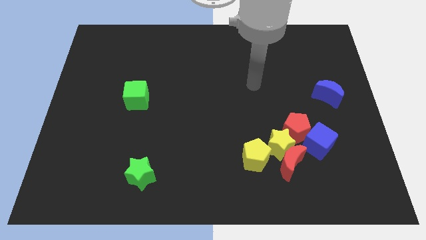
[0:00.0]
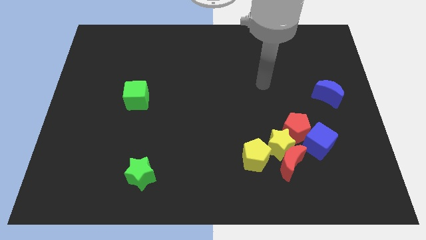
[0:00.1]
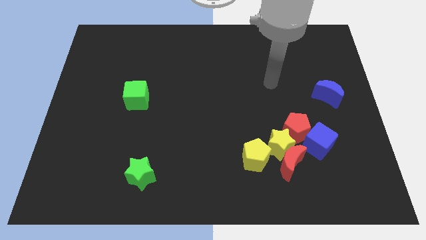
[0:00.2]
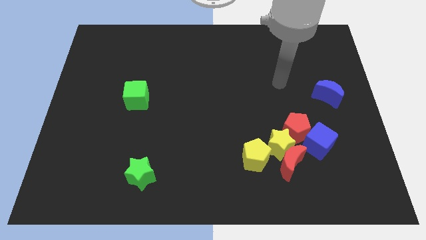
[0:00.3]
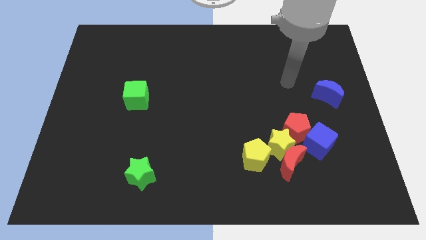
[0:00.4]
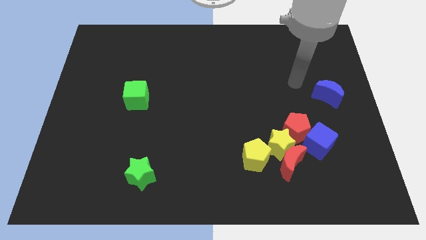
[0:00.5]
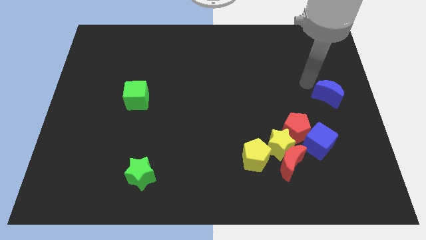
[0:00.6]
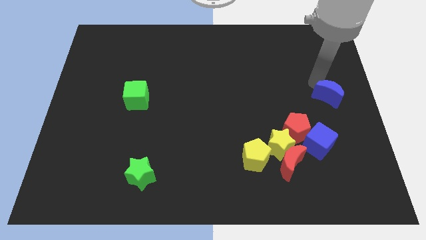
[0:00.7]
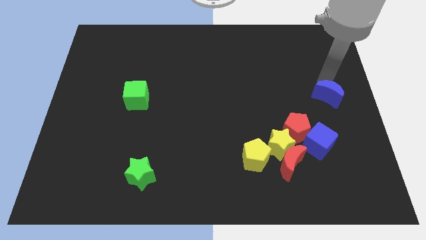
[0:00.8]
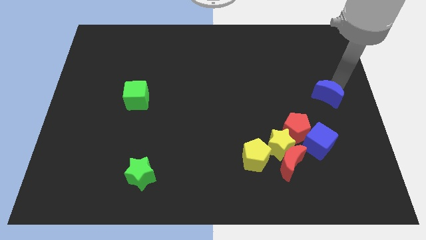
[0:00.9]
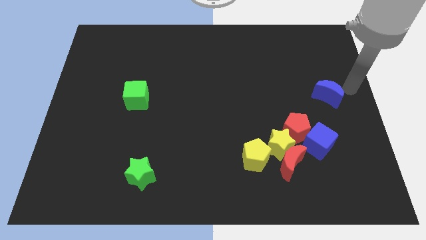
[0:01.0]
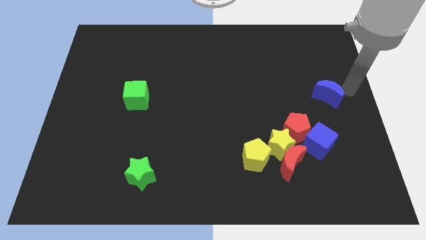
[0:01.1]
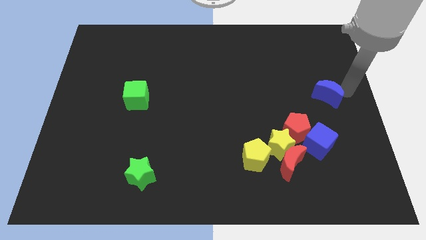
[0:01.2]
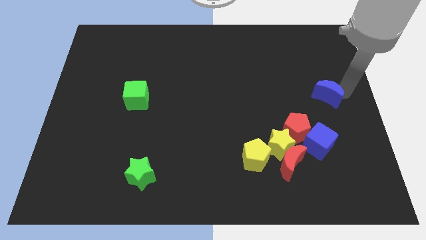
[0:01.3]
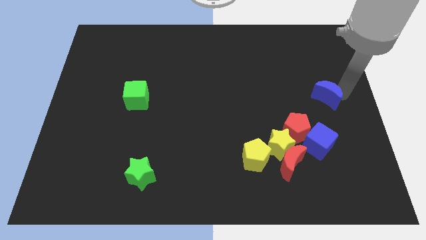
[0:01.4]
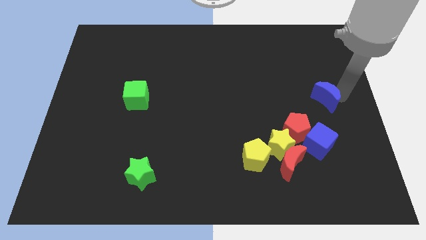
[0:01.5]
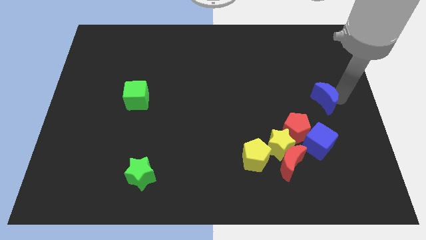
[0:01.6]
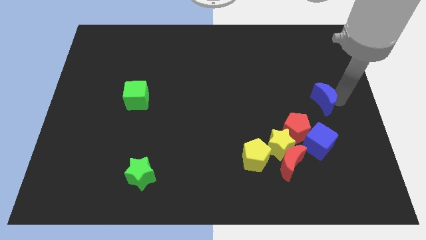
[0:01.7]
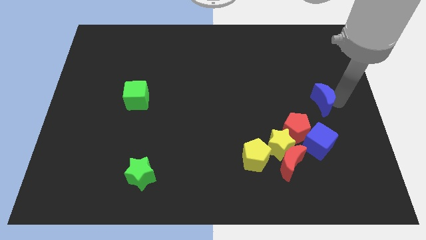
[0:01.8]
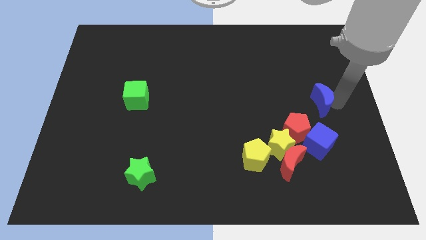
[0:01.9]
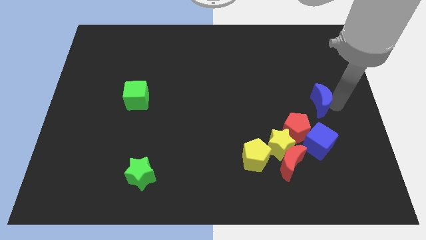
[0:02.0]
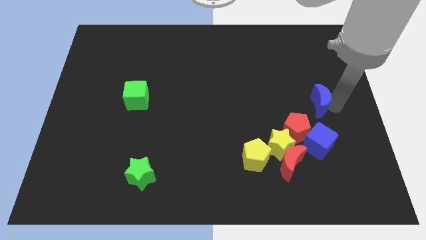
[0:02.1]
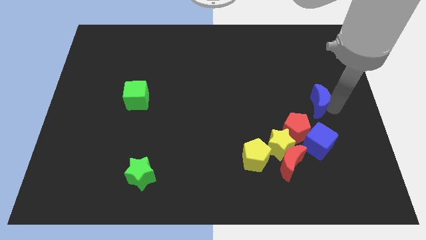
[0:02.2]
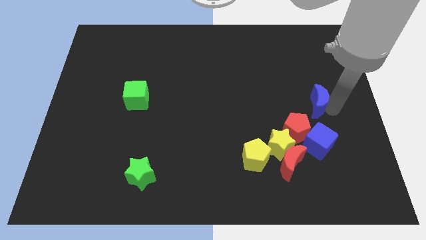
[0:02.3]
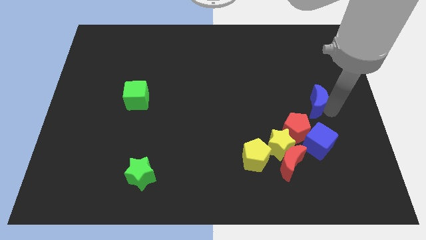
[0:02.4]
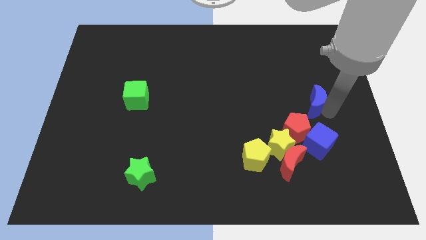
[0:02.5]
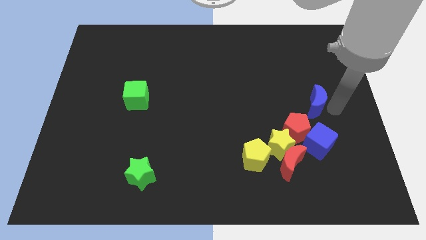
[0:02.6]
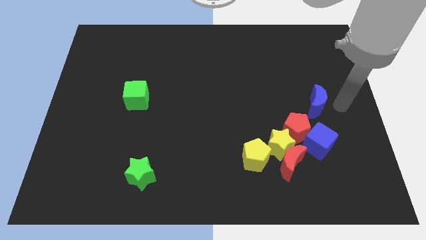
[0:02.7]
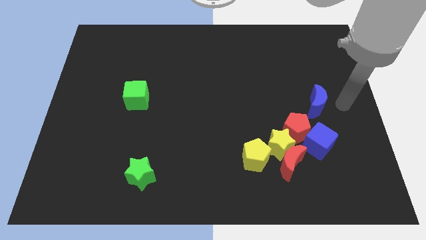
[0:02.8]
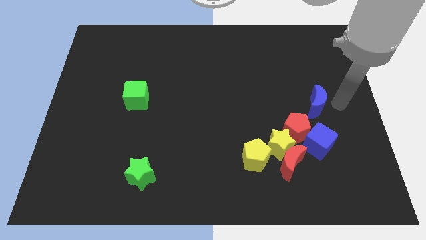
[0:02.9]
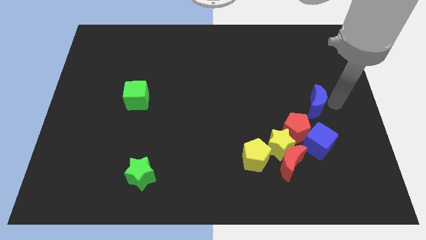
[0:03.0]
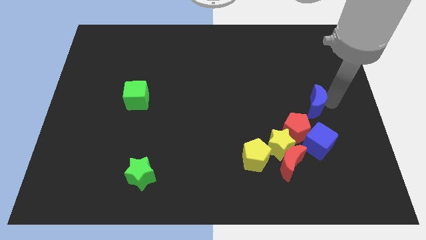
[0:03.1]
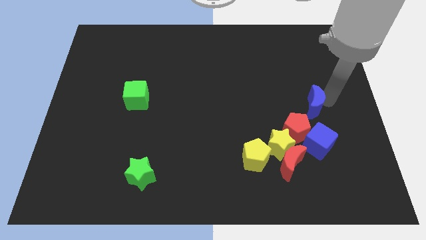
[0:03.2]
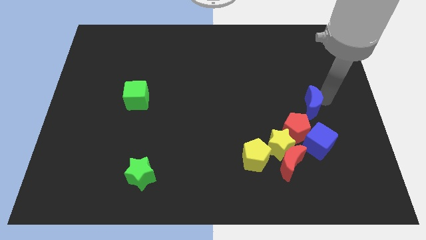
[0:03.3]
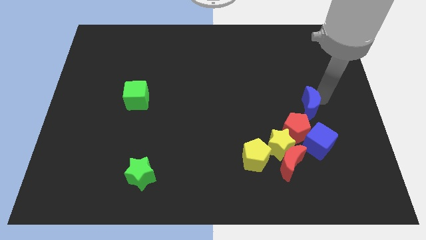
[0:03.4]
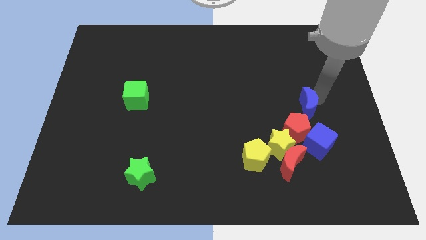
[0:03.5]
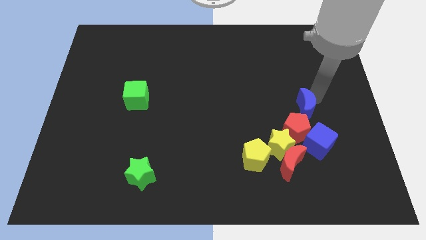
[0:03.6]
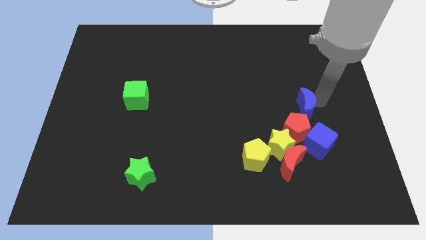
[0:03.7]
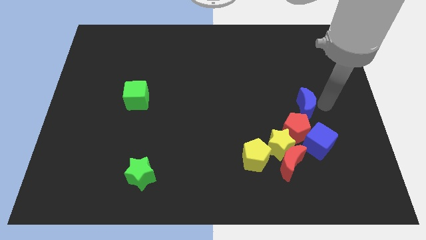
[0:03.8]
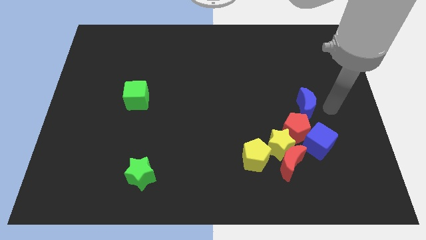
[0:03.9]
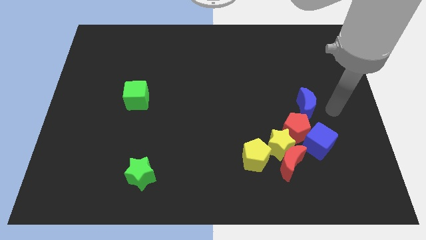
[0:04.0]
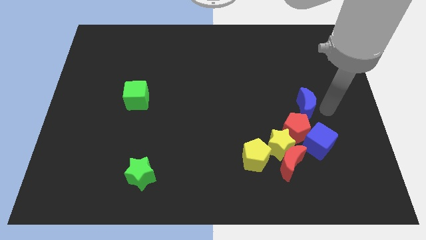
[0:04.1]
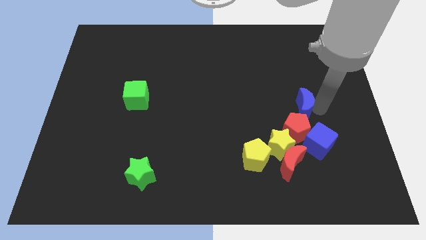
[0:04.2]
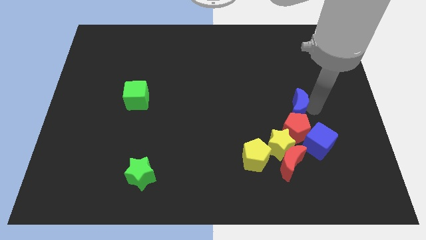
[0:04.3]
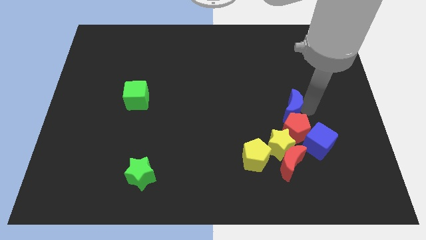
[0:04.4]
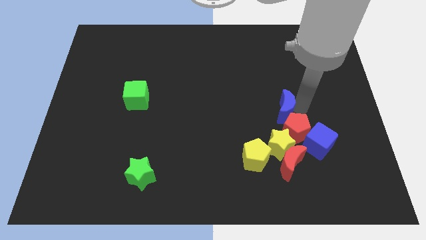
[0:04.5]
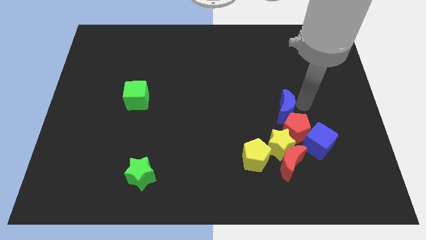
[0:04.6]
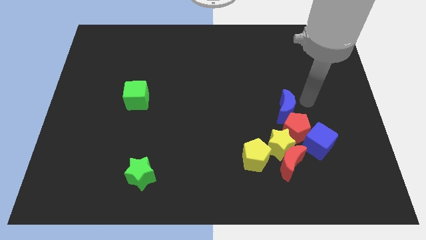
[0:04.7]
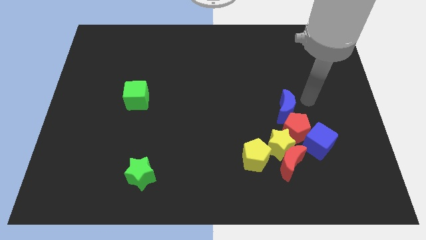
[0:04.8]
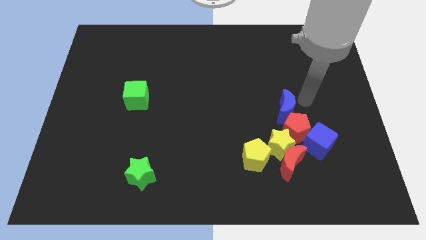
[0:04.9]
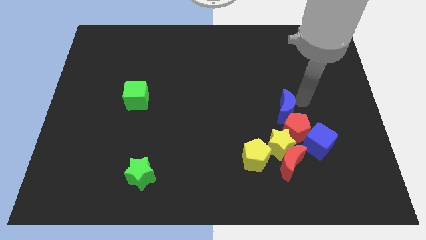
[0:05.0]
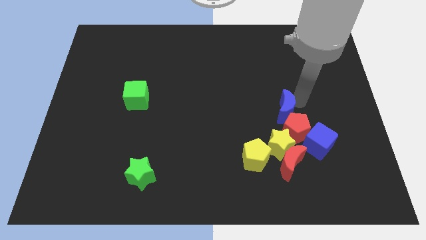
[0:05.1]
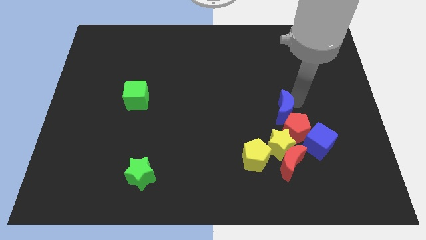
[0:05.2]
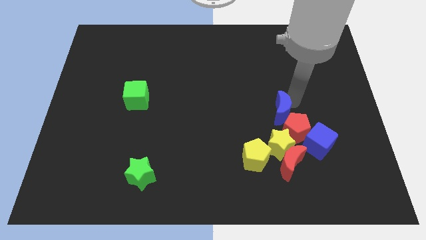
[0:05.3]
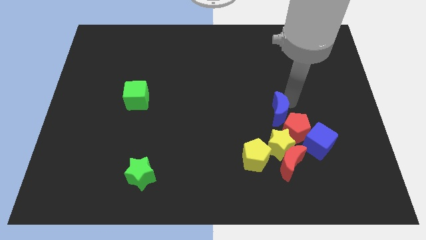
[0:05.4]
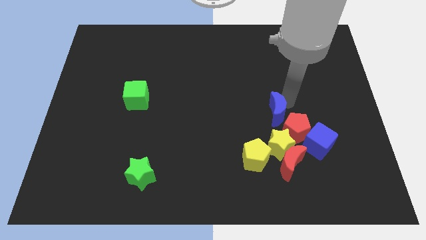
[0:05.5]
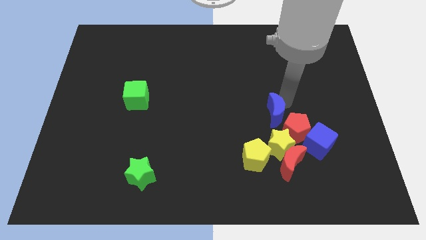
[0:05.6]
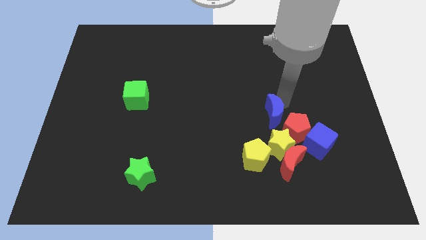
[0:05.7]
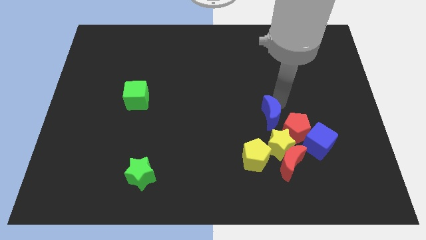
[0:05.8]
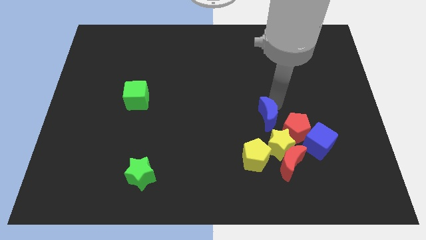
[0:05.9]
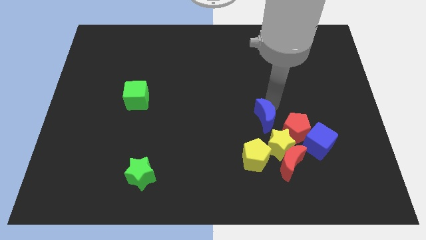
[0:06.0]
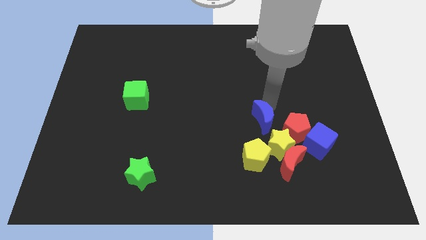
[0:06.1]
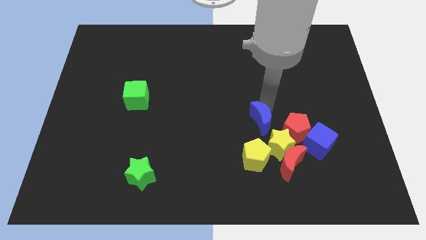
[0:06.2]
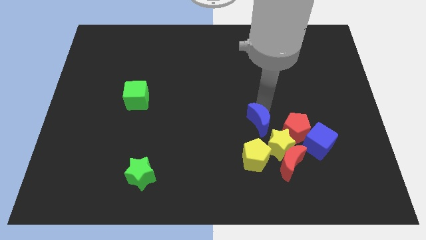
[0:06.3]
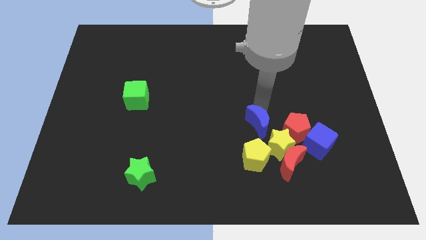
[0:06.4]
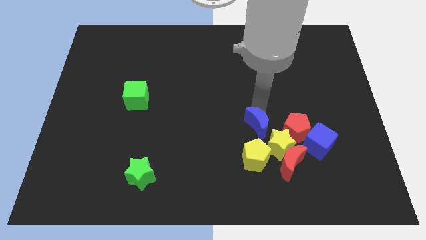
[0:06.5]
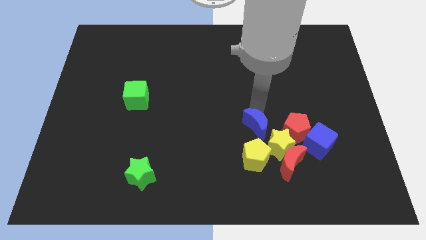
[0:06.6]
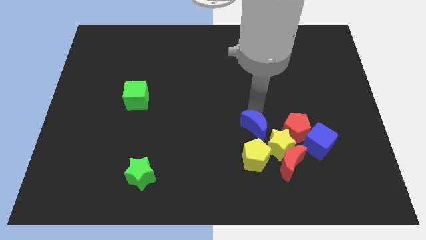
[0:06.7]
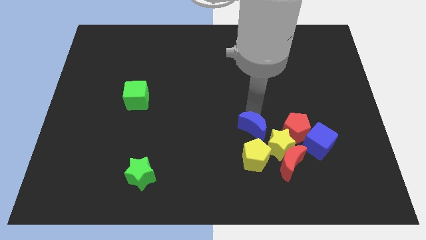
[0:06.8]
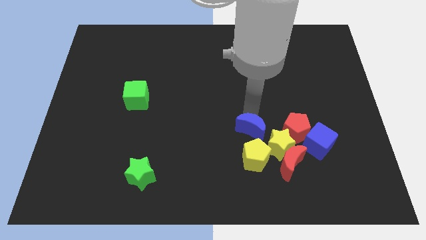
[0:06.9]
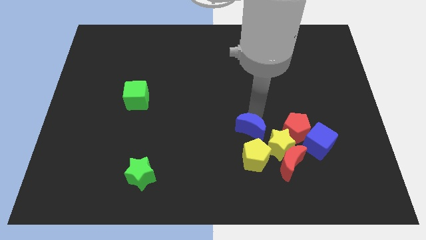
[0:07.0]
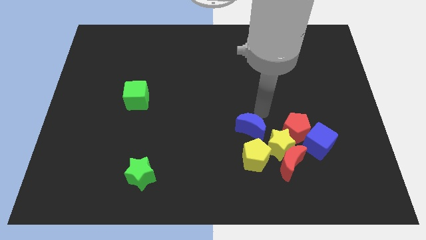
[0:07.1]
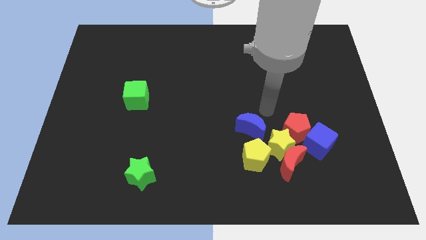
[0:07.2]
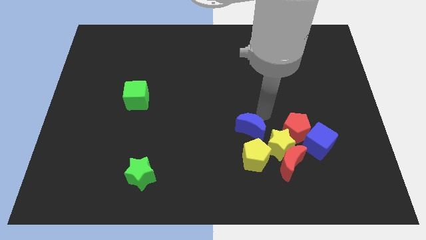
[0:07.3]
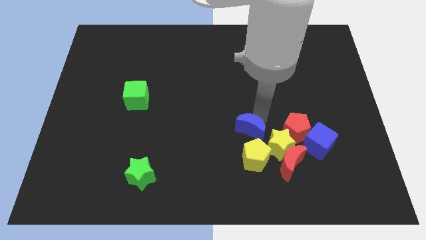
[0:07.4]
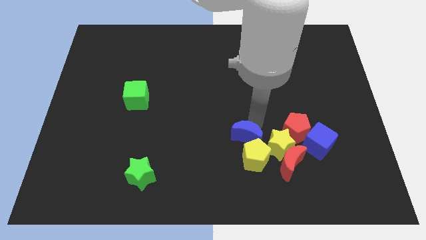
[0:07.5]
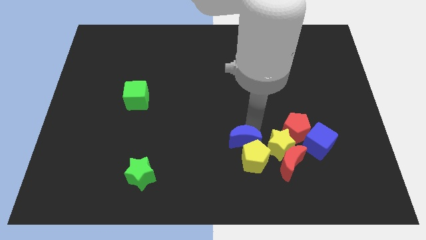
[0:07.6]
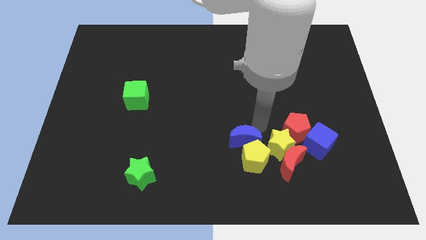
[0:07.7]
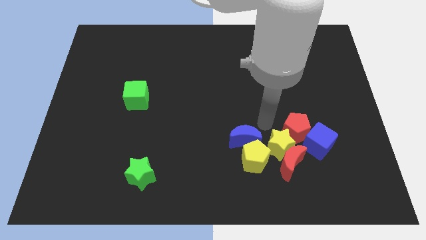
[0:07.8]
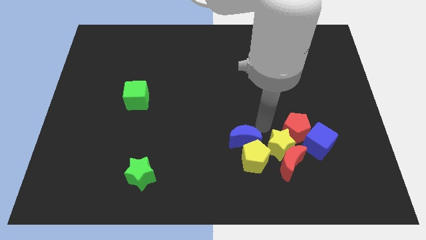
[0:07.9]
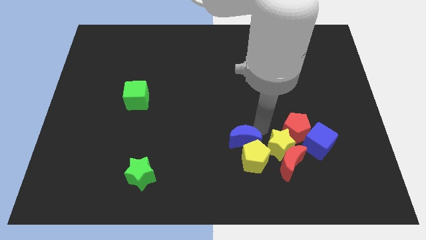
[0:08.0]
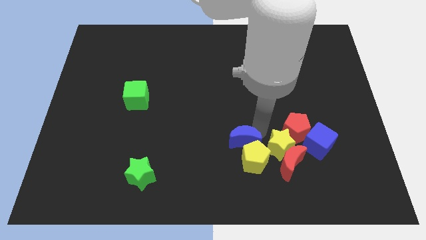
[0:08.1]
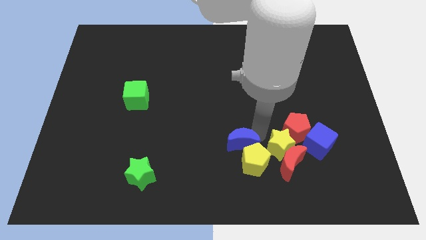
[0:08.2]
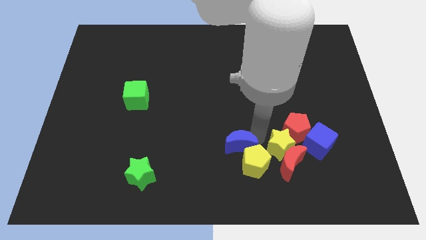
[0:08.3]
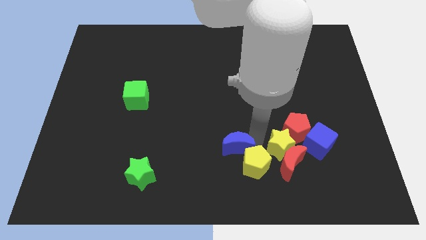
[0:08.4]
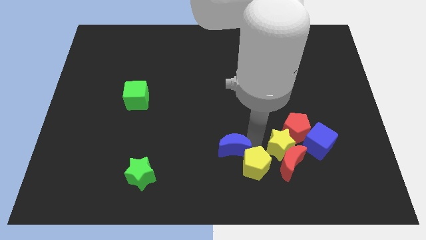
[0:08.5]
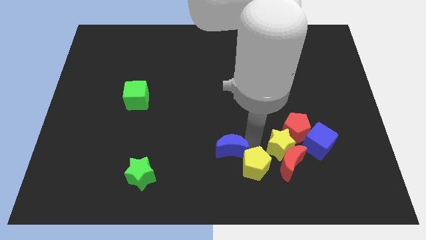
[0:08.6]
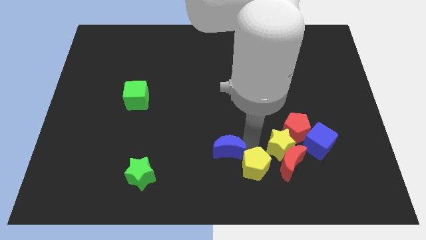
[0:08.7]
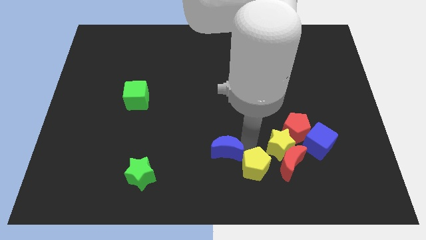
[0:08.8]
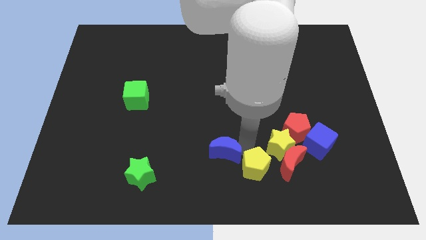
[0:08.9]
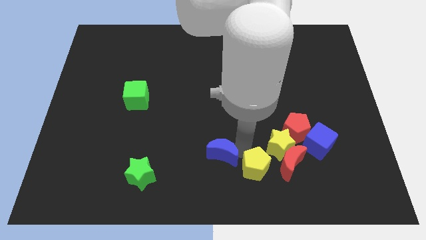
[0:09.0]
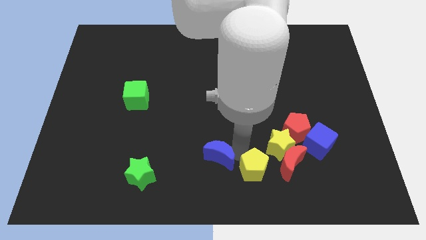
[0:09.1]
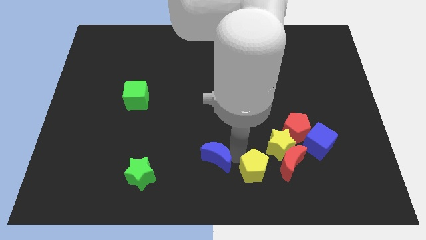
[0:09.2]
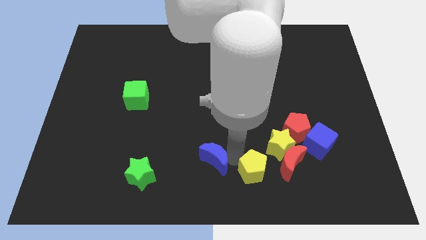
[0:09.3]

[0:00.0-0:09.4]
put the blue moon right of the green star
